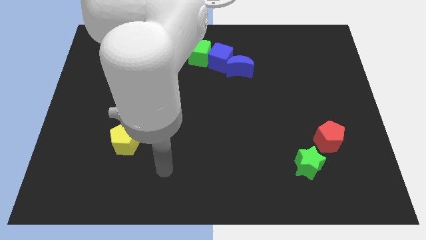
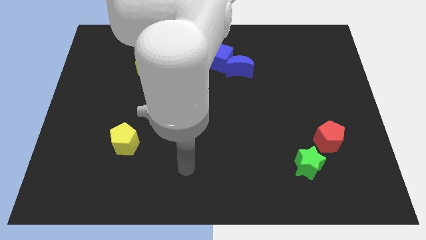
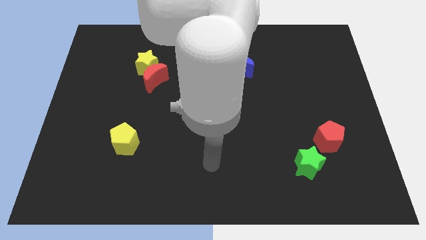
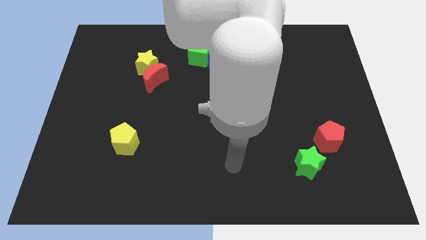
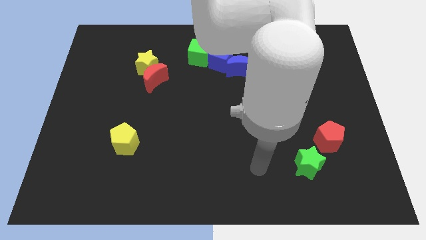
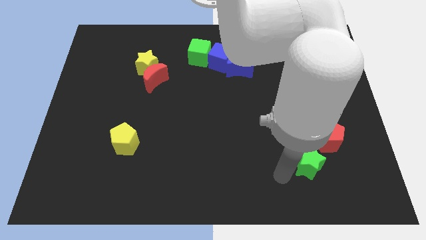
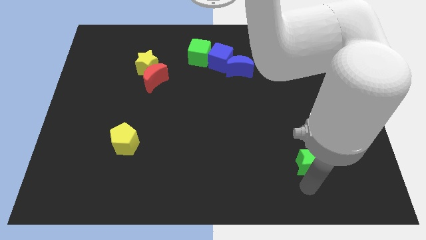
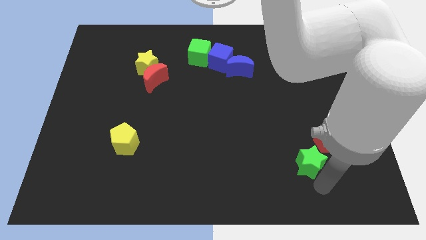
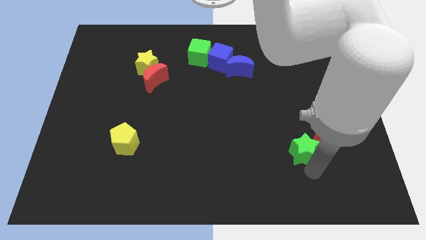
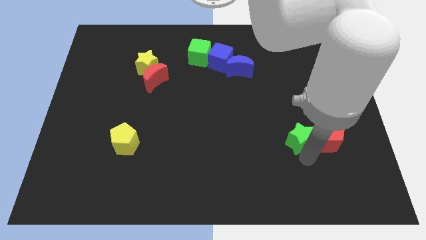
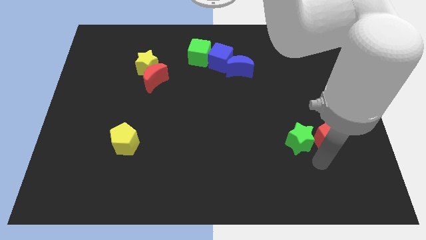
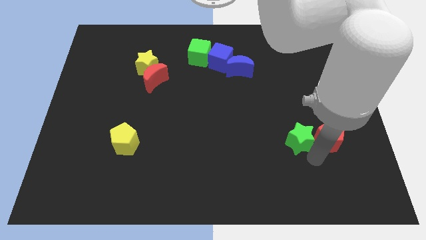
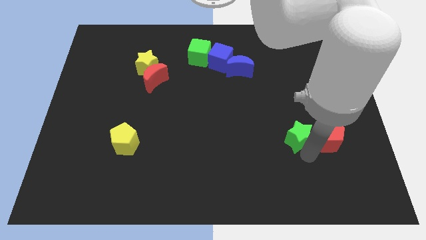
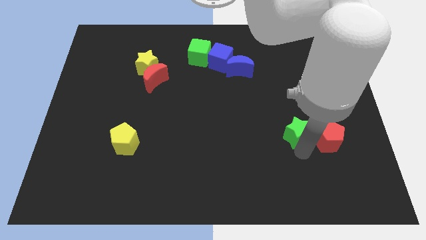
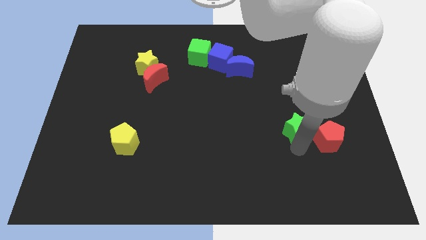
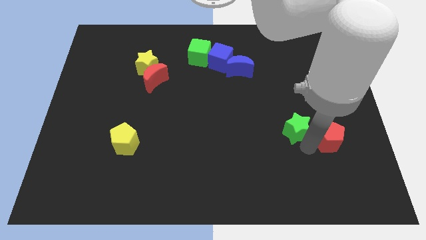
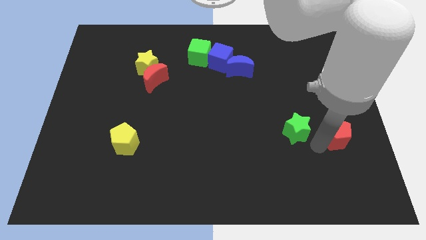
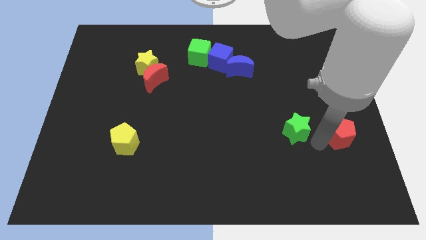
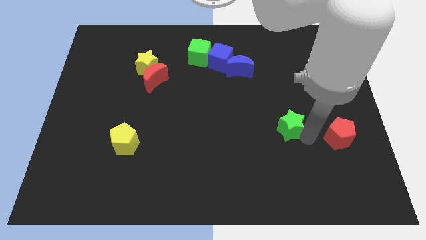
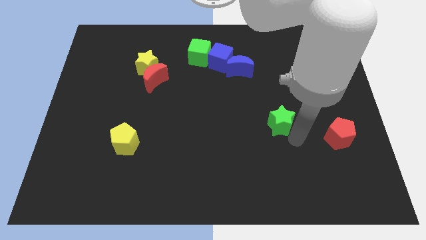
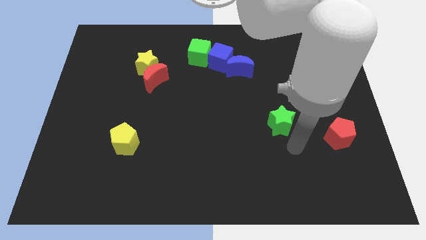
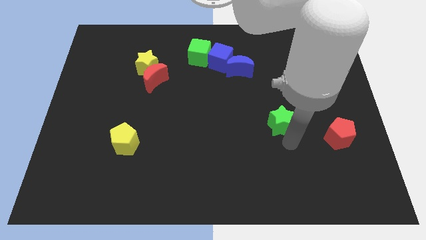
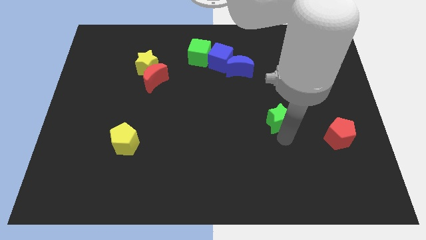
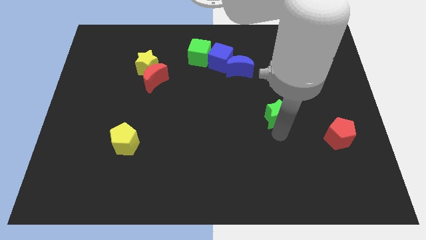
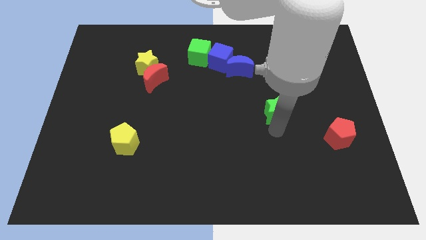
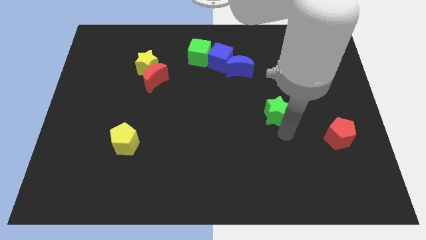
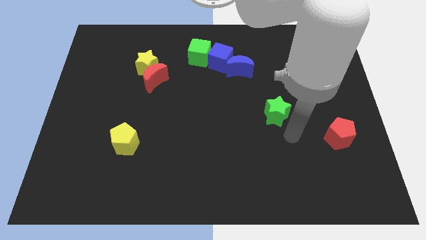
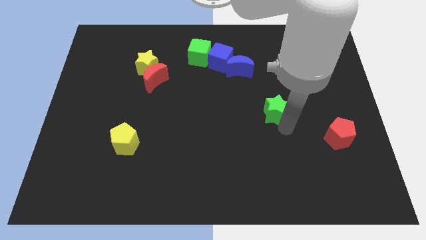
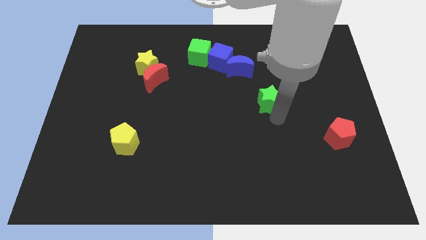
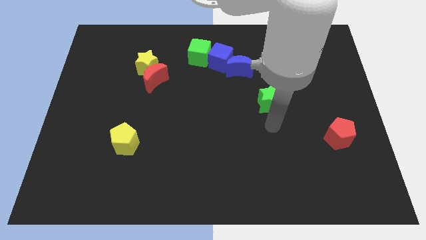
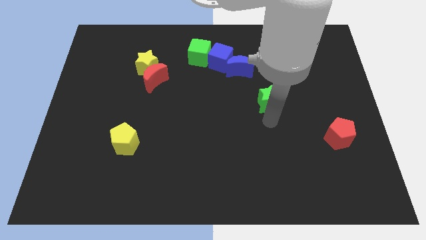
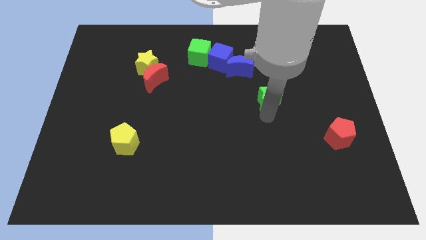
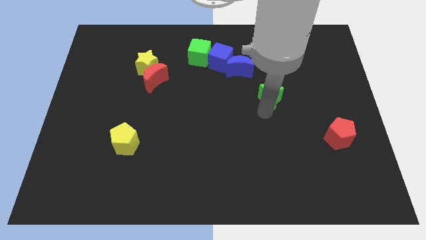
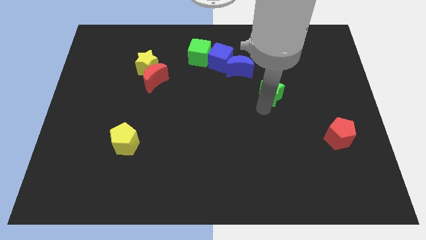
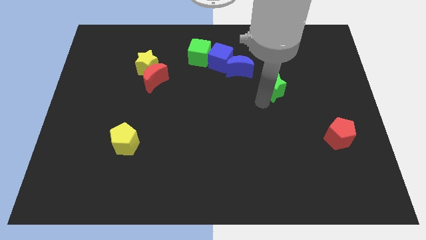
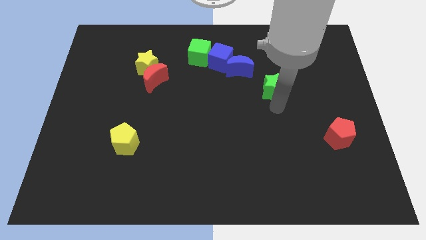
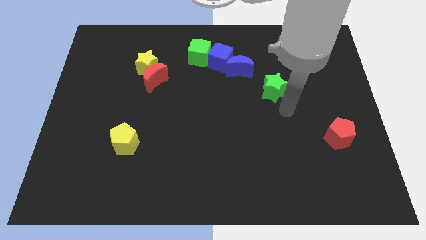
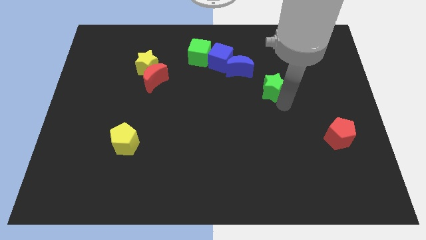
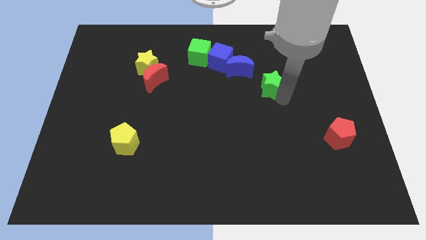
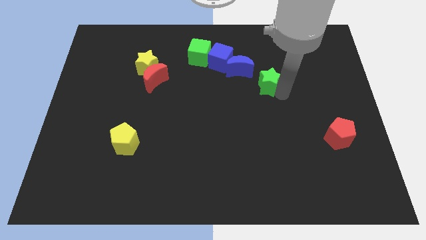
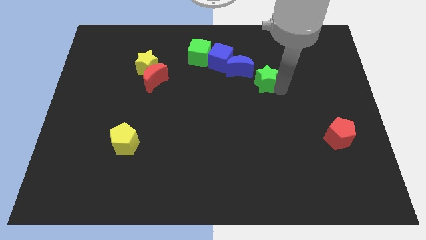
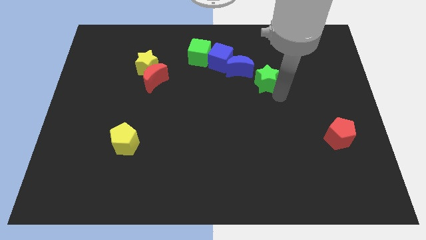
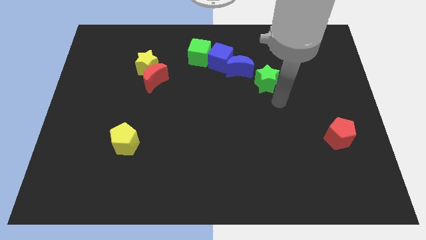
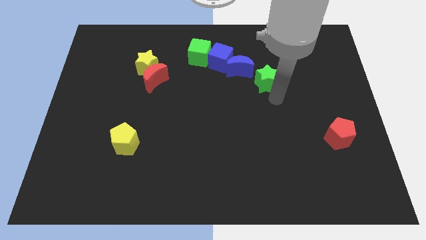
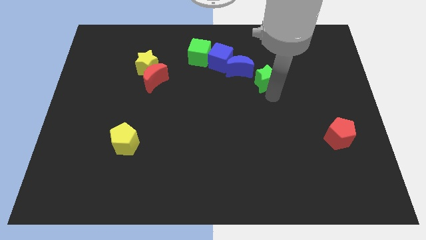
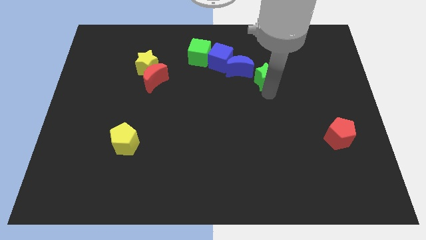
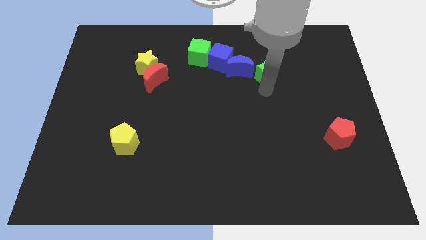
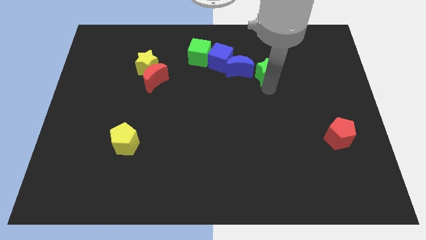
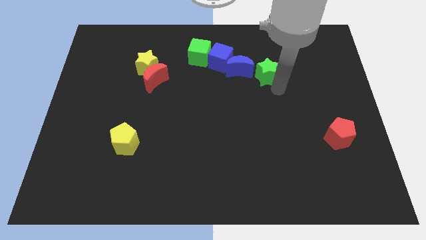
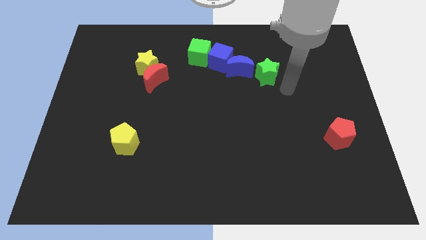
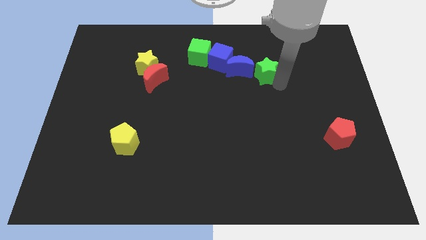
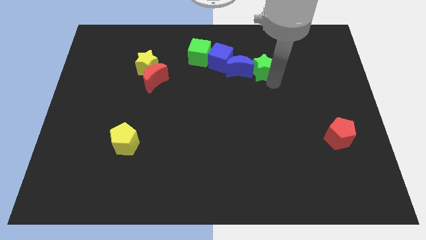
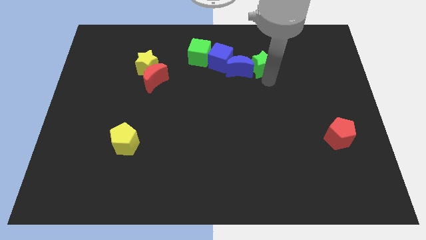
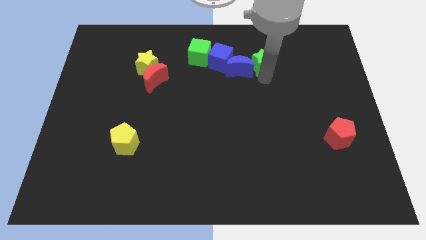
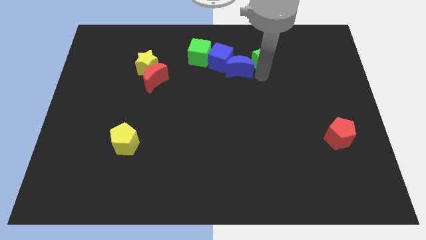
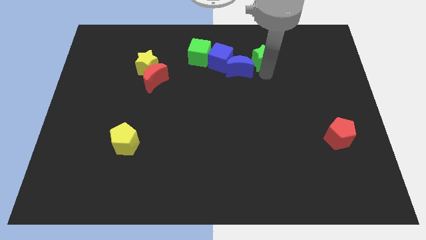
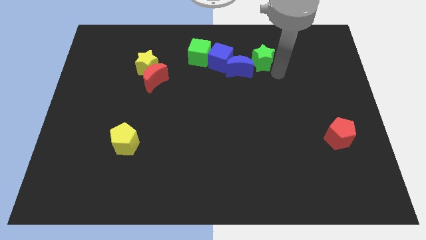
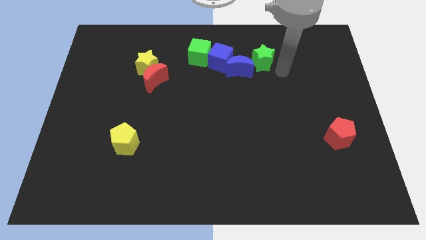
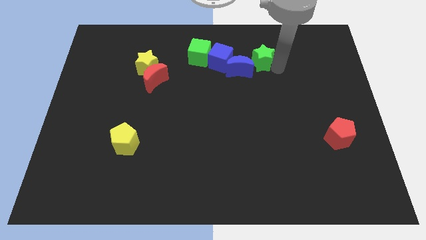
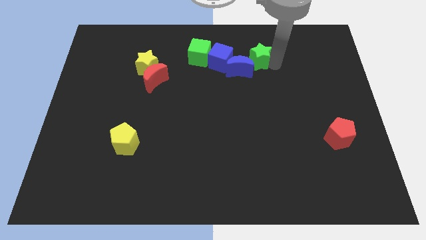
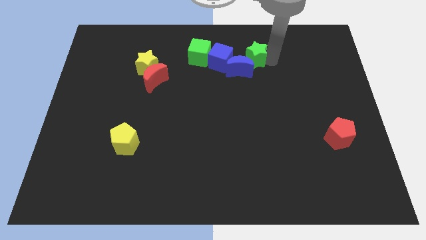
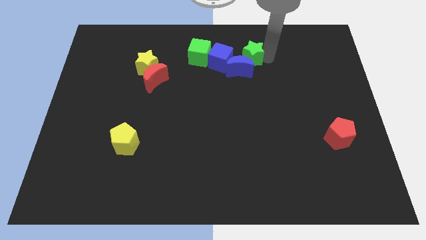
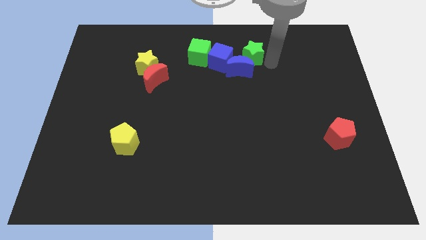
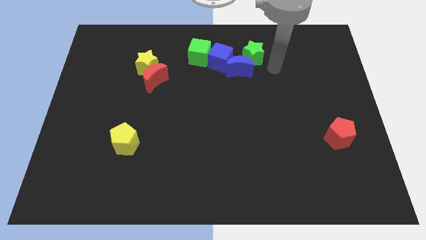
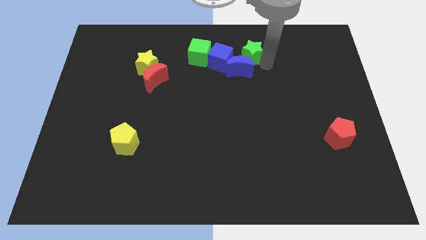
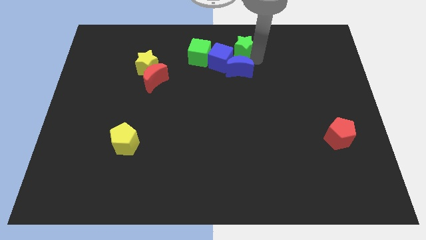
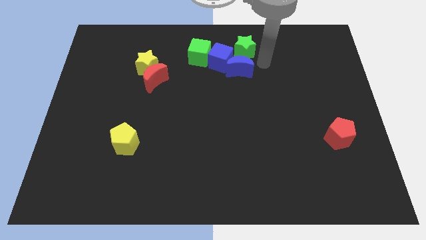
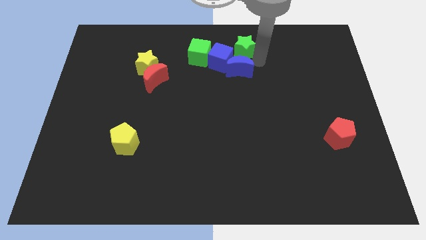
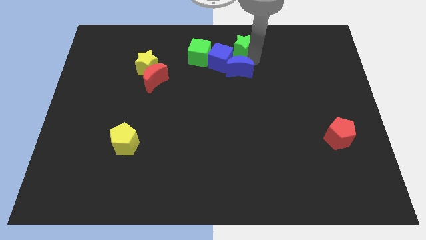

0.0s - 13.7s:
move the green star to the top
